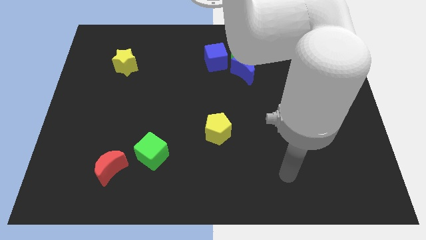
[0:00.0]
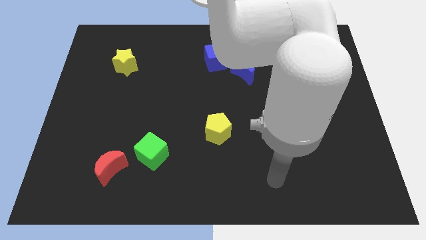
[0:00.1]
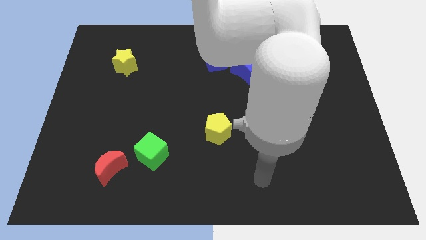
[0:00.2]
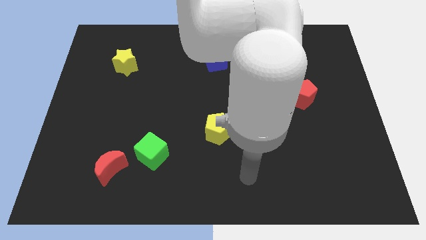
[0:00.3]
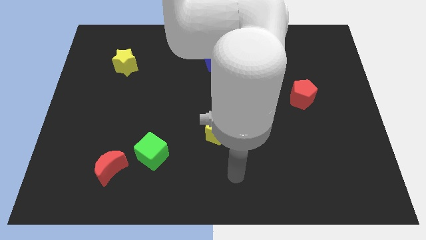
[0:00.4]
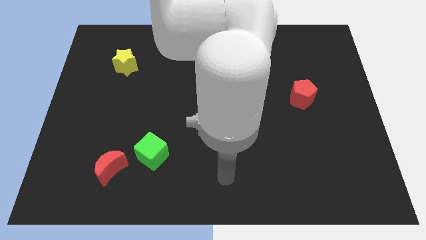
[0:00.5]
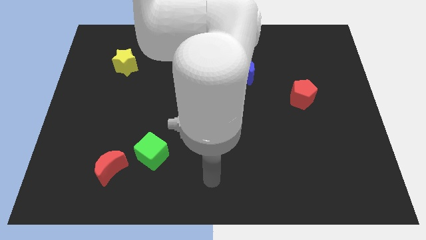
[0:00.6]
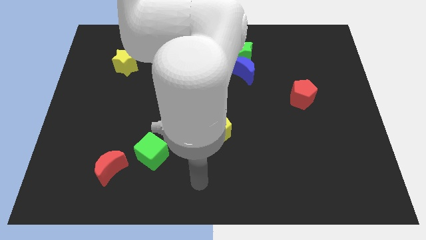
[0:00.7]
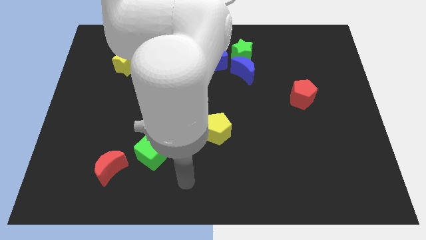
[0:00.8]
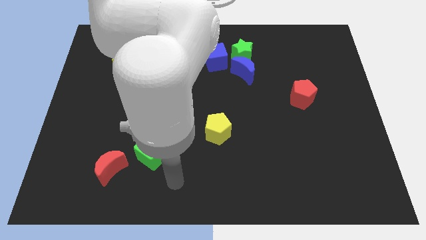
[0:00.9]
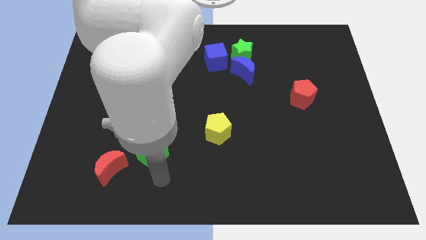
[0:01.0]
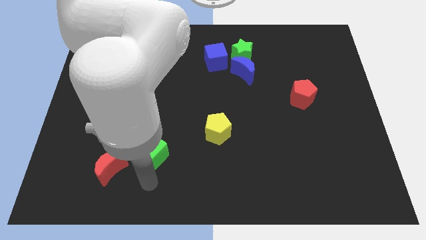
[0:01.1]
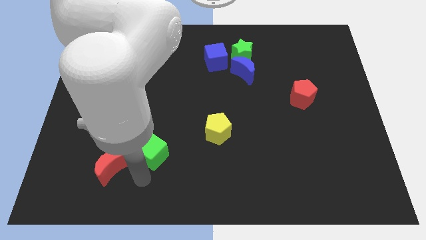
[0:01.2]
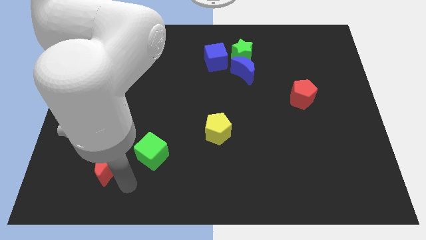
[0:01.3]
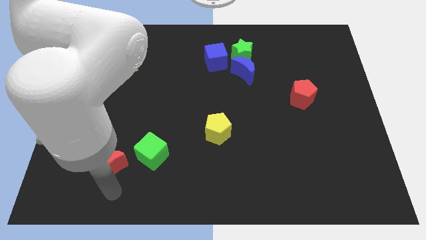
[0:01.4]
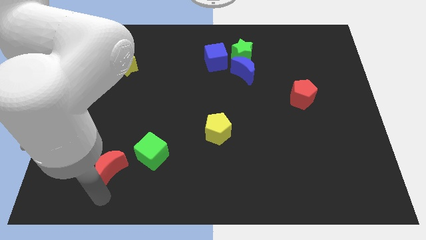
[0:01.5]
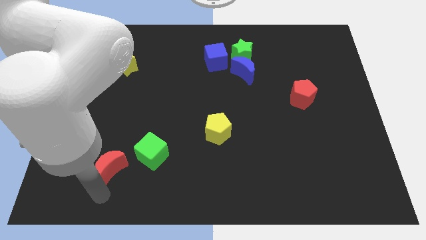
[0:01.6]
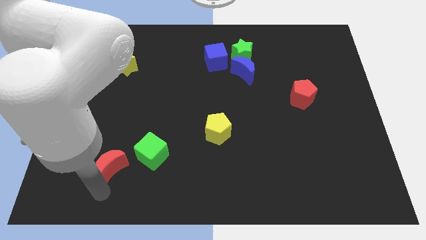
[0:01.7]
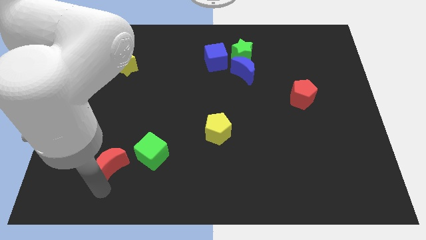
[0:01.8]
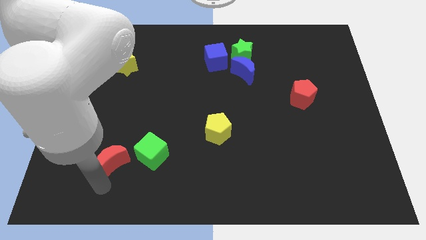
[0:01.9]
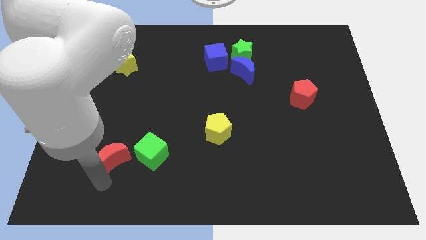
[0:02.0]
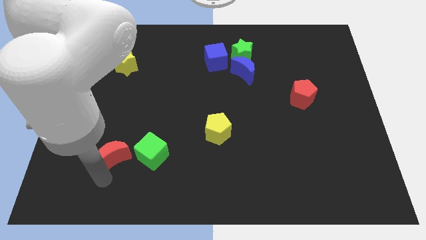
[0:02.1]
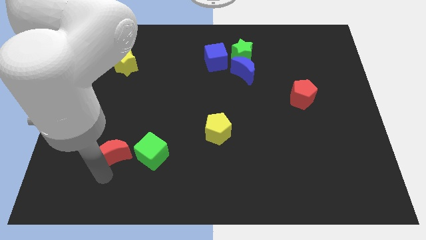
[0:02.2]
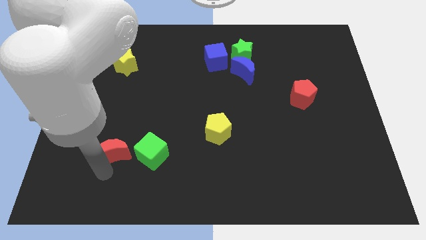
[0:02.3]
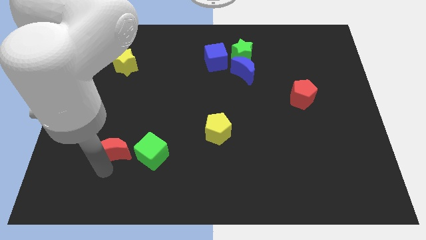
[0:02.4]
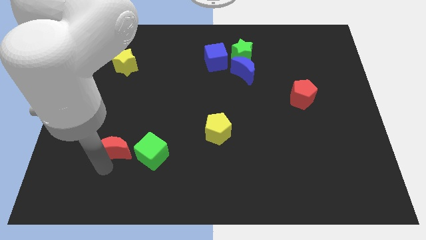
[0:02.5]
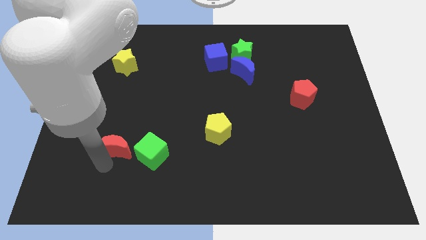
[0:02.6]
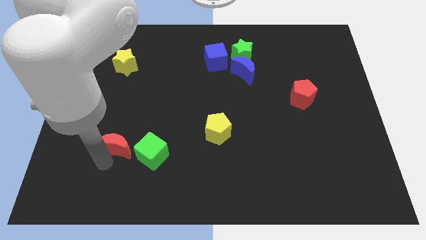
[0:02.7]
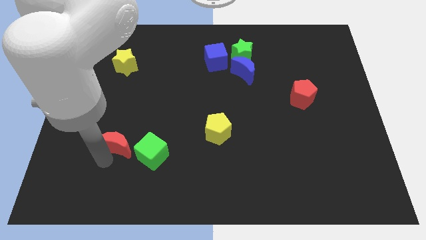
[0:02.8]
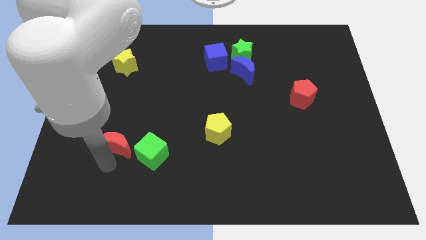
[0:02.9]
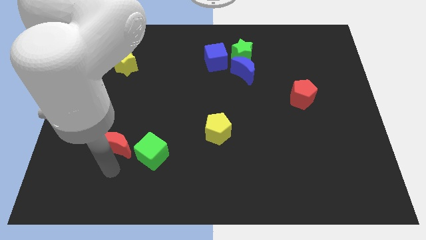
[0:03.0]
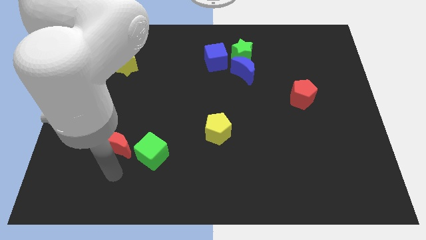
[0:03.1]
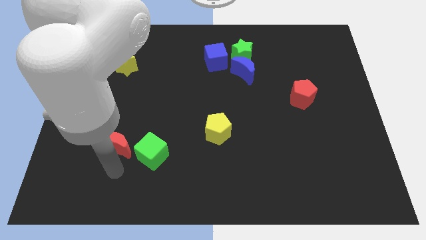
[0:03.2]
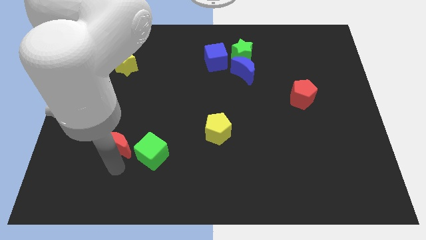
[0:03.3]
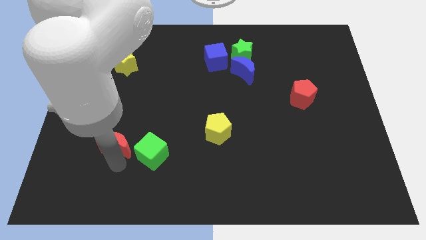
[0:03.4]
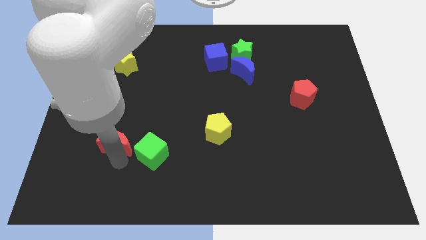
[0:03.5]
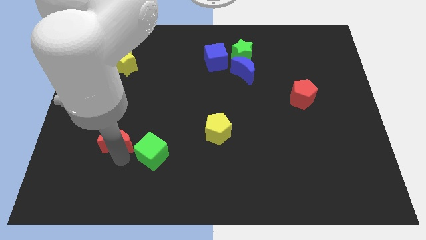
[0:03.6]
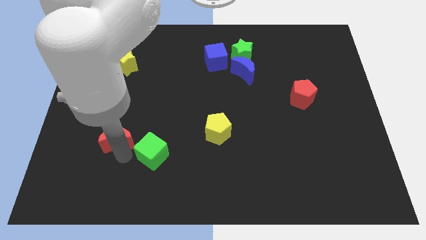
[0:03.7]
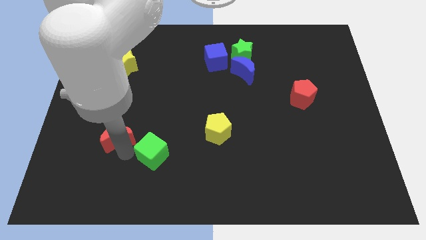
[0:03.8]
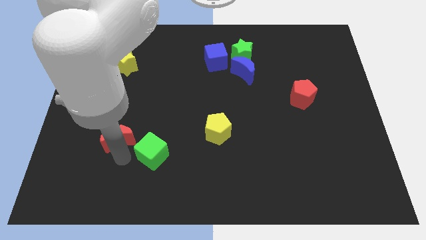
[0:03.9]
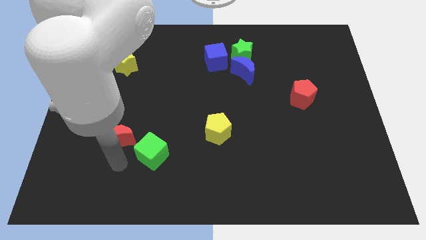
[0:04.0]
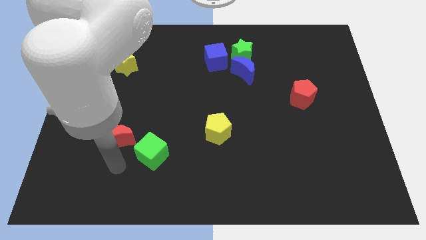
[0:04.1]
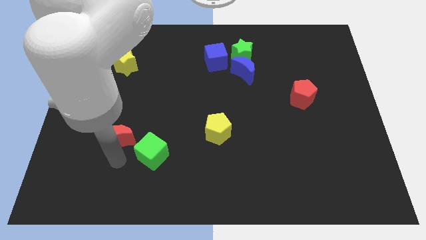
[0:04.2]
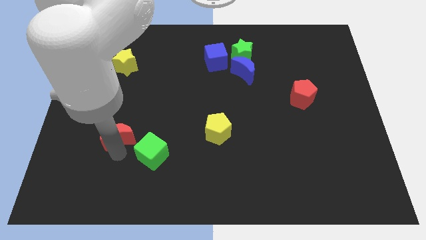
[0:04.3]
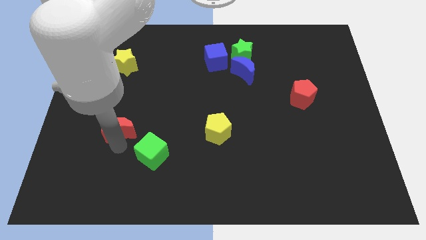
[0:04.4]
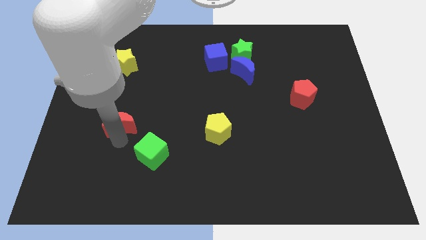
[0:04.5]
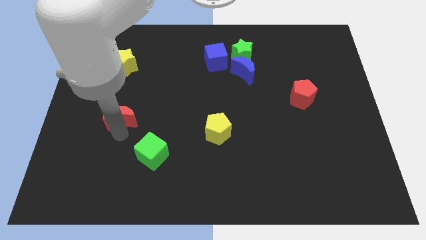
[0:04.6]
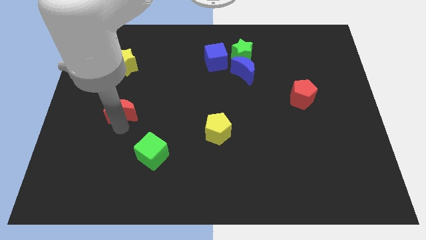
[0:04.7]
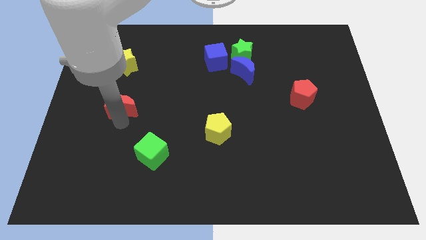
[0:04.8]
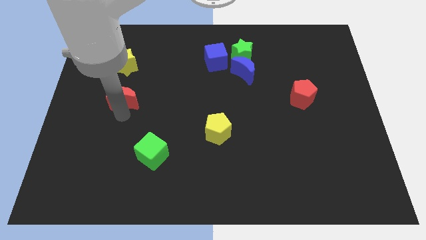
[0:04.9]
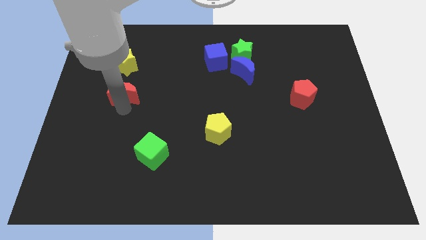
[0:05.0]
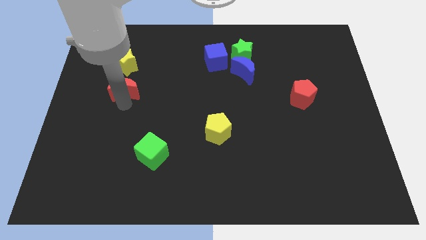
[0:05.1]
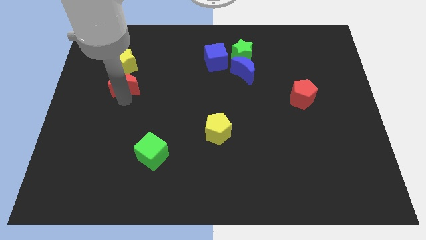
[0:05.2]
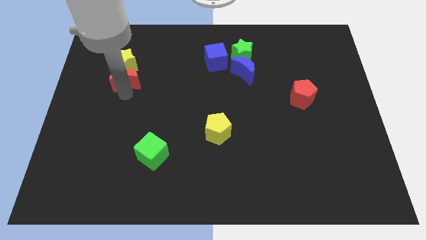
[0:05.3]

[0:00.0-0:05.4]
push the red moon to the yellow star

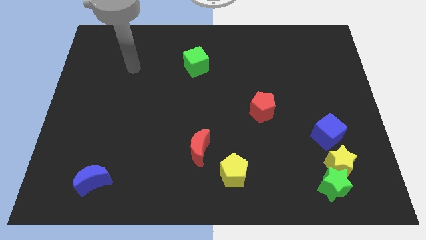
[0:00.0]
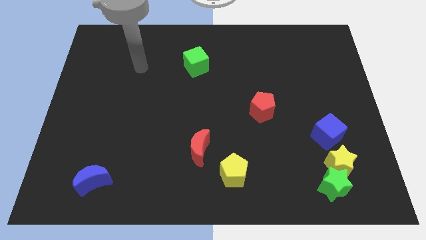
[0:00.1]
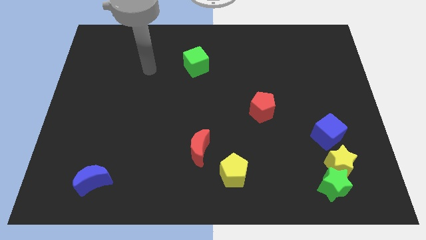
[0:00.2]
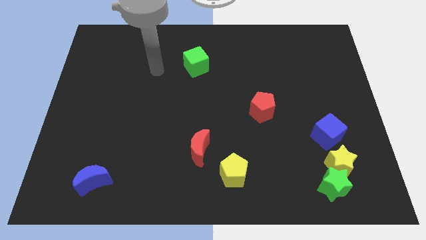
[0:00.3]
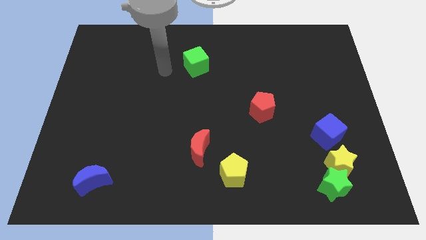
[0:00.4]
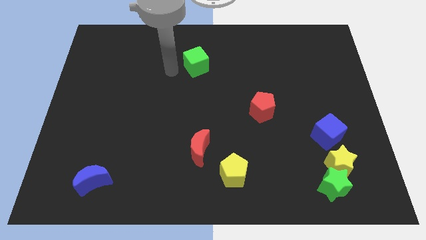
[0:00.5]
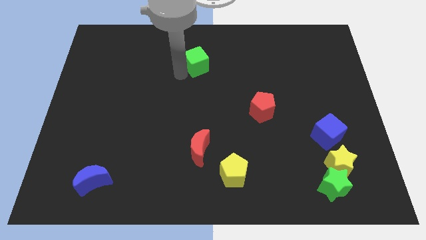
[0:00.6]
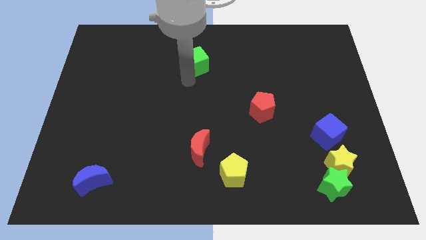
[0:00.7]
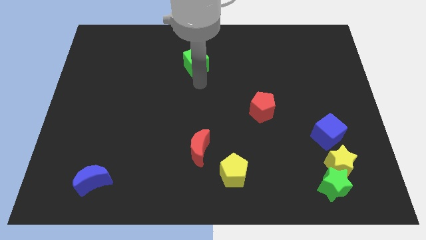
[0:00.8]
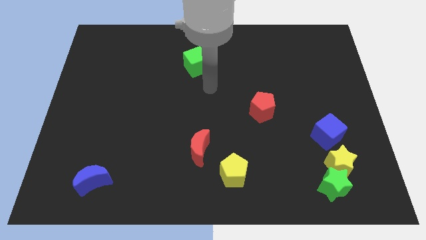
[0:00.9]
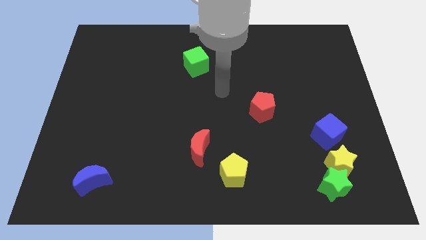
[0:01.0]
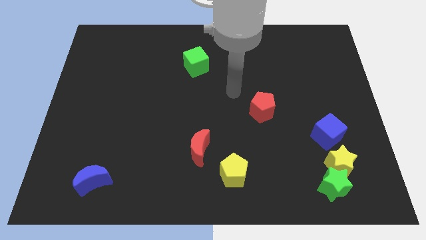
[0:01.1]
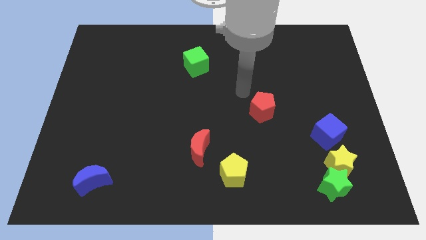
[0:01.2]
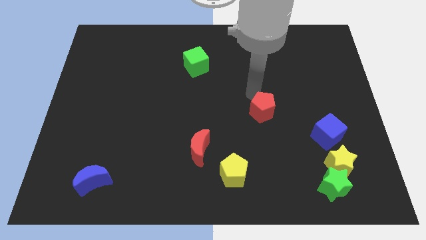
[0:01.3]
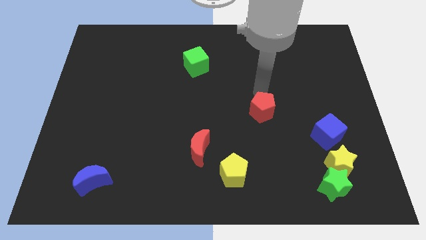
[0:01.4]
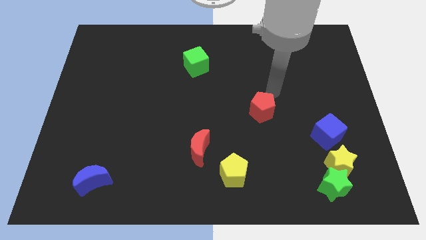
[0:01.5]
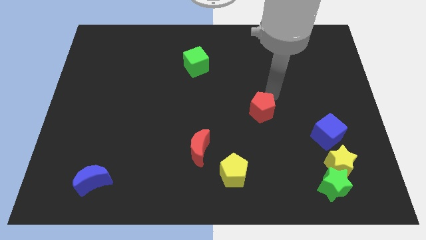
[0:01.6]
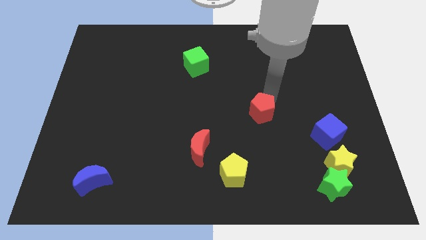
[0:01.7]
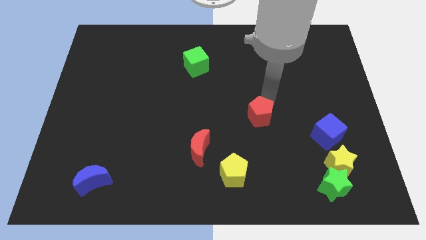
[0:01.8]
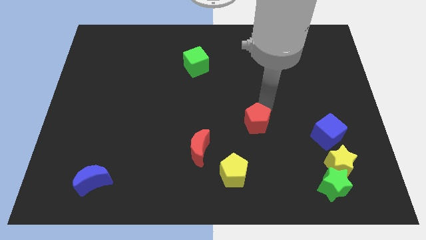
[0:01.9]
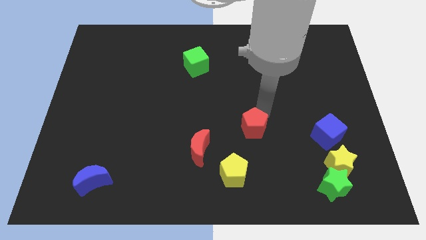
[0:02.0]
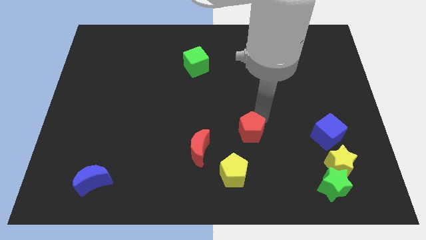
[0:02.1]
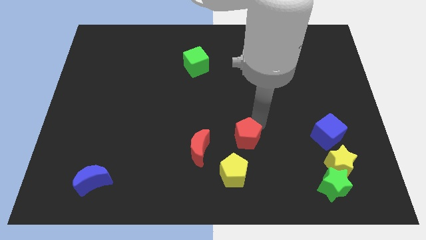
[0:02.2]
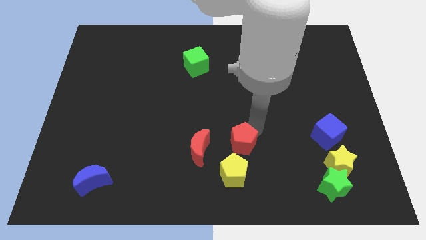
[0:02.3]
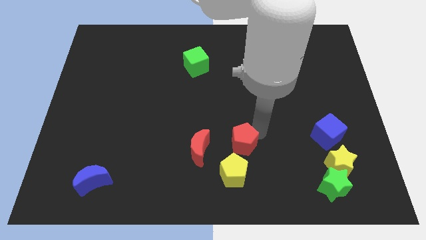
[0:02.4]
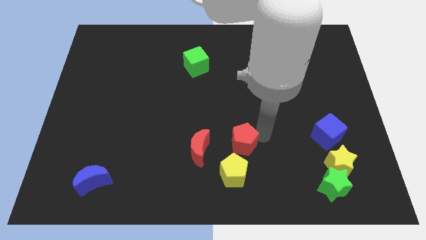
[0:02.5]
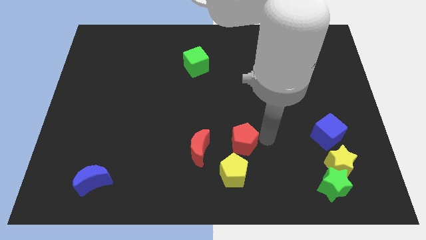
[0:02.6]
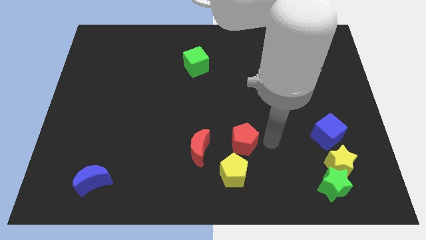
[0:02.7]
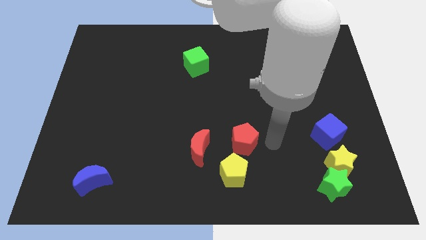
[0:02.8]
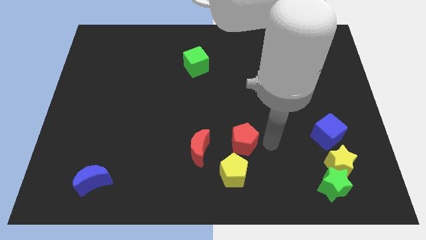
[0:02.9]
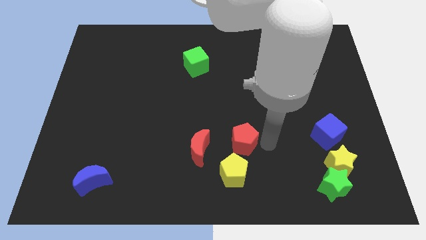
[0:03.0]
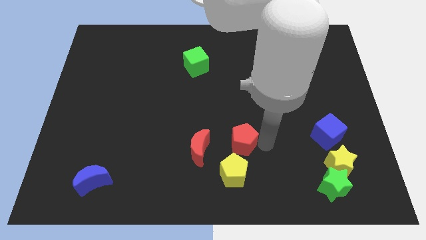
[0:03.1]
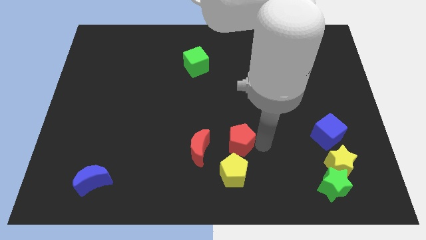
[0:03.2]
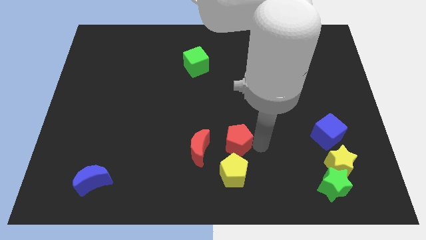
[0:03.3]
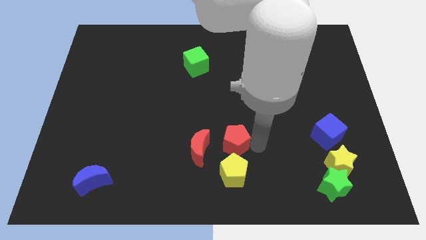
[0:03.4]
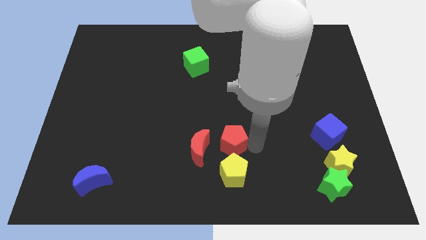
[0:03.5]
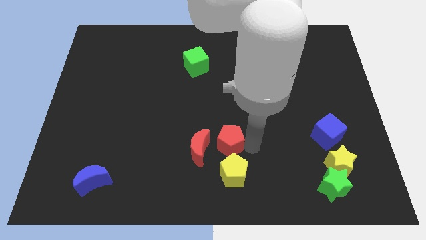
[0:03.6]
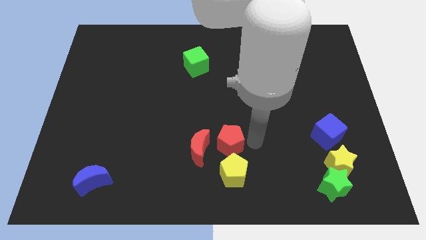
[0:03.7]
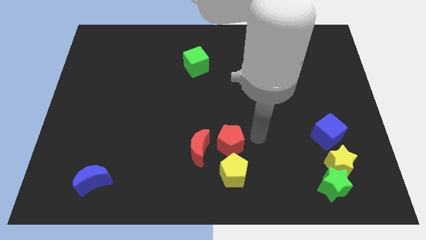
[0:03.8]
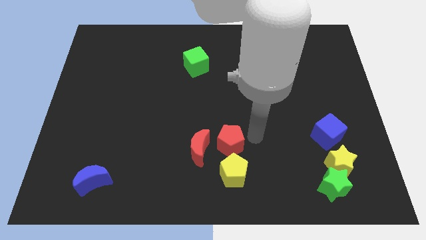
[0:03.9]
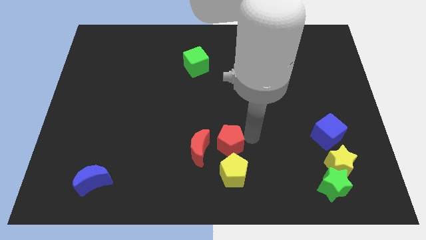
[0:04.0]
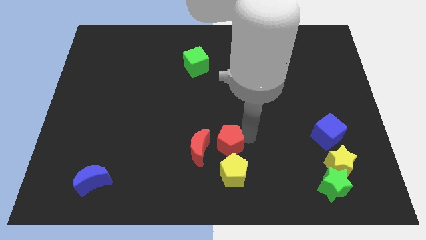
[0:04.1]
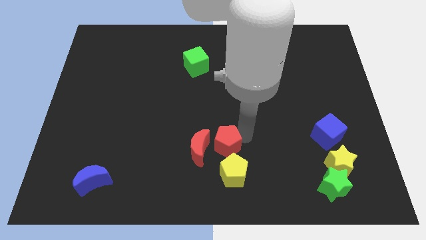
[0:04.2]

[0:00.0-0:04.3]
move the red pentagon to the red moon
